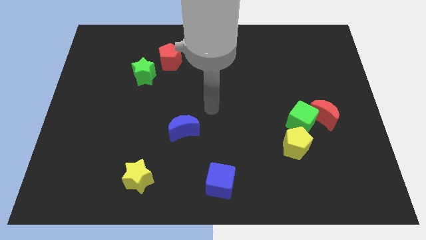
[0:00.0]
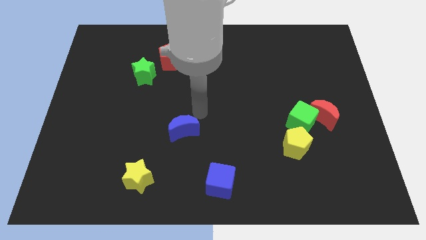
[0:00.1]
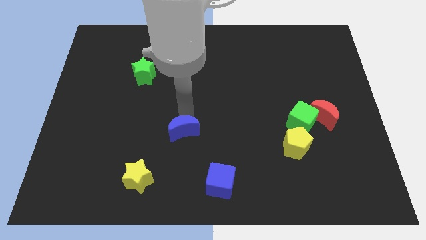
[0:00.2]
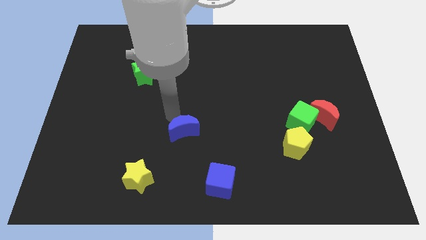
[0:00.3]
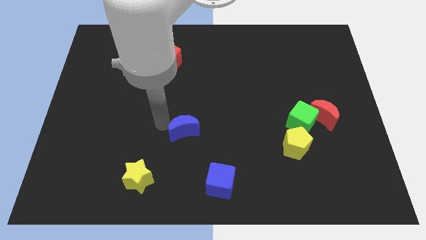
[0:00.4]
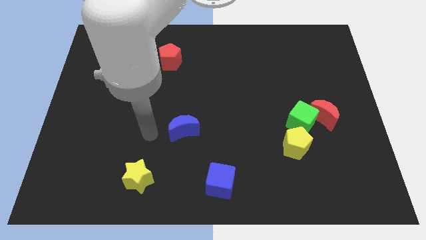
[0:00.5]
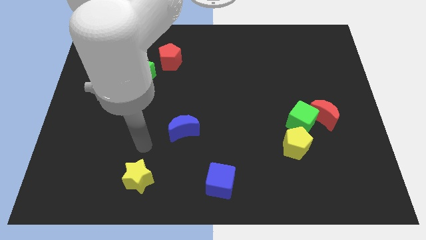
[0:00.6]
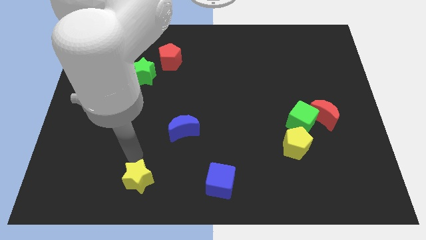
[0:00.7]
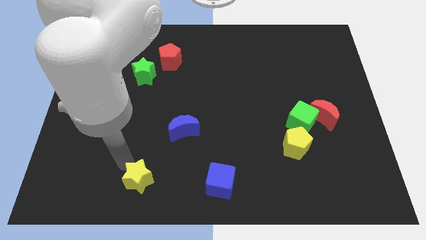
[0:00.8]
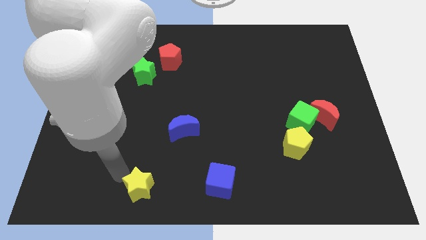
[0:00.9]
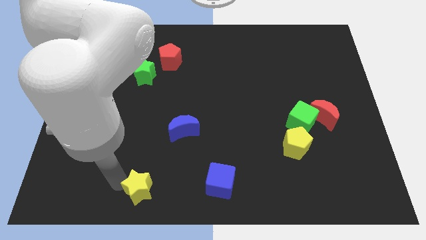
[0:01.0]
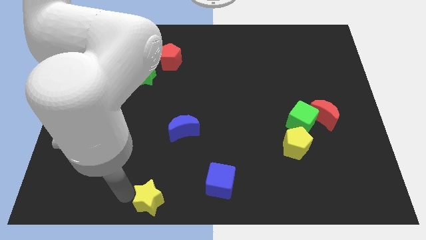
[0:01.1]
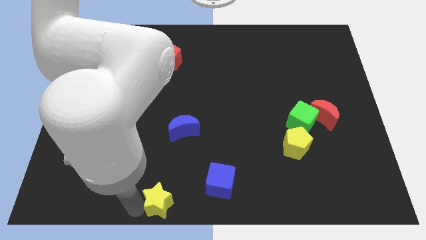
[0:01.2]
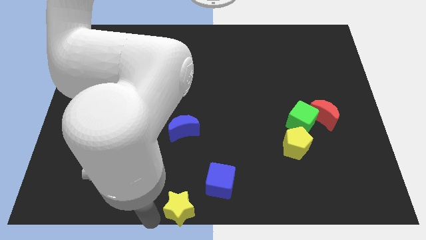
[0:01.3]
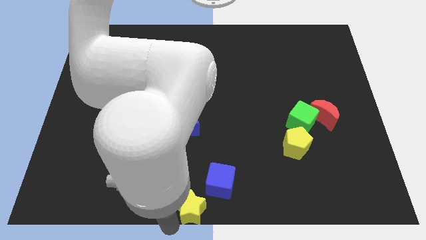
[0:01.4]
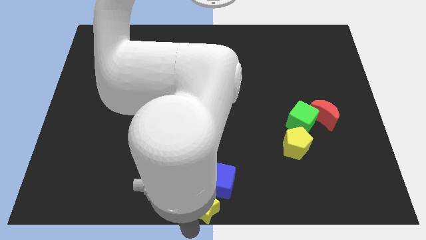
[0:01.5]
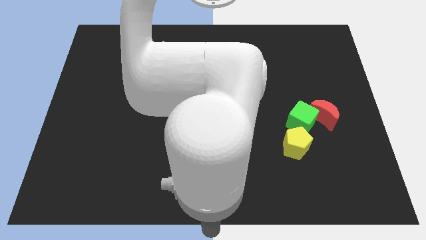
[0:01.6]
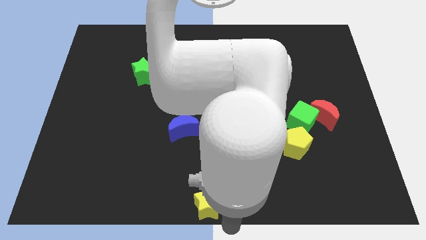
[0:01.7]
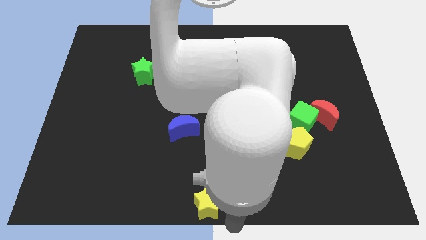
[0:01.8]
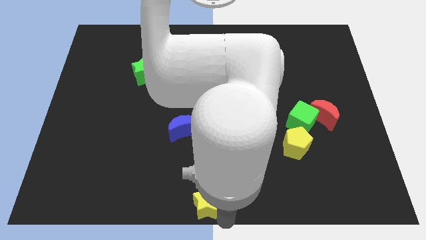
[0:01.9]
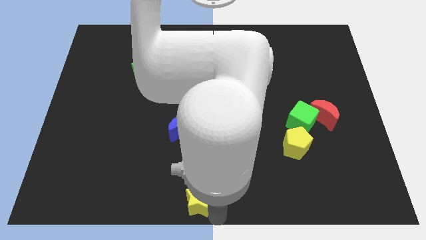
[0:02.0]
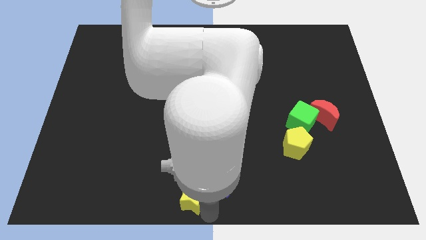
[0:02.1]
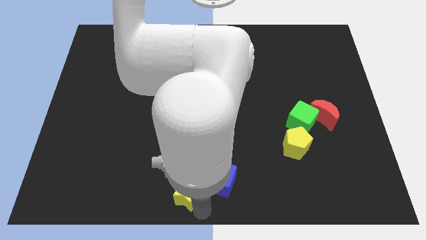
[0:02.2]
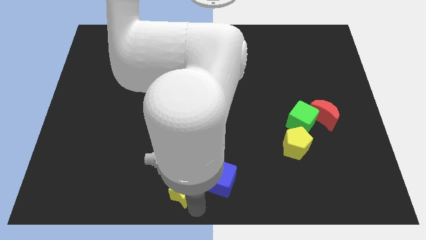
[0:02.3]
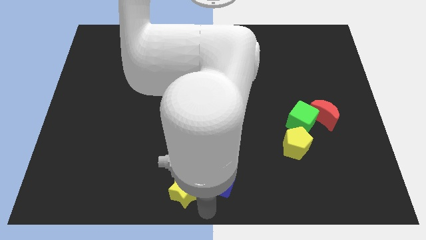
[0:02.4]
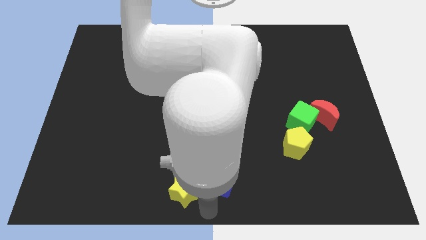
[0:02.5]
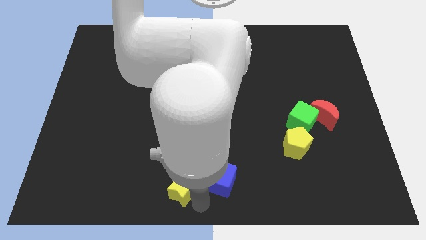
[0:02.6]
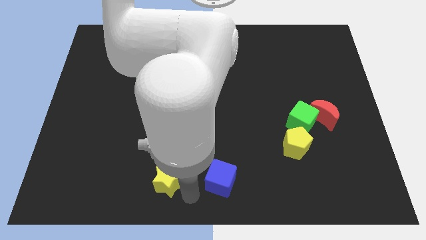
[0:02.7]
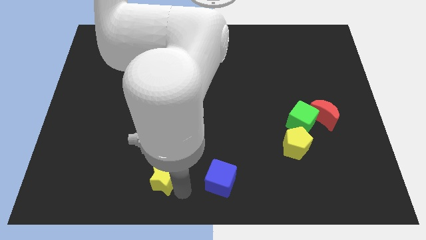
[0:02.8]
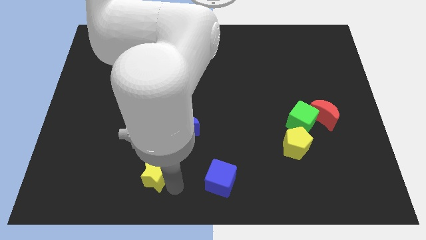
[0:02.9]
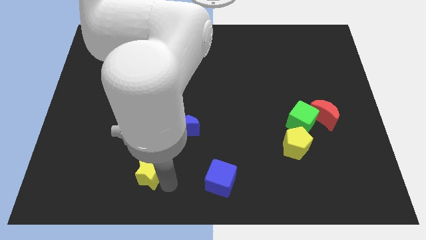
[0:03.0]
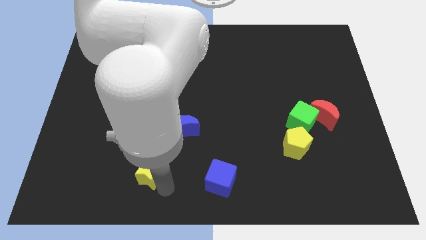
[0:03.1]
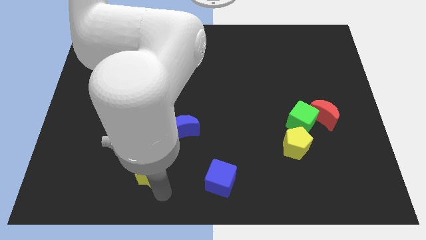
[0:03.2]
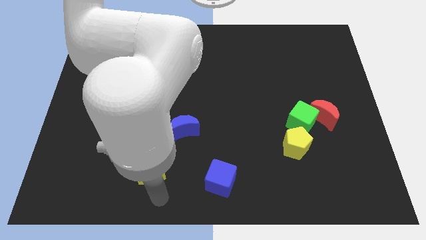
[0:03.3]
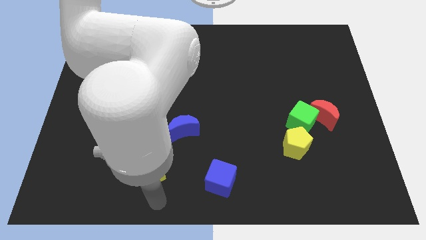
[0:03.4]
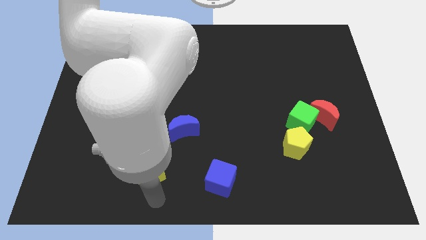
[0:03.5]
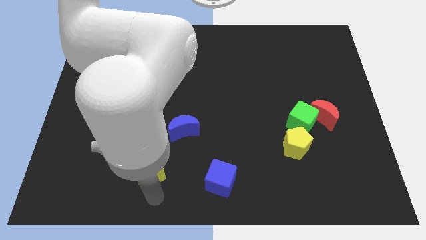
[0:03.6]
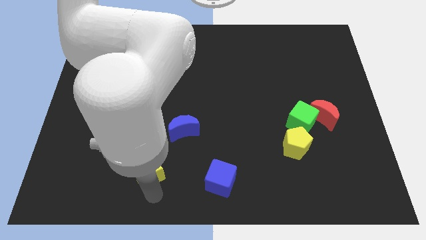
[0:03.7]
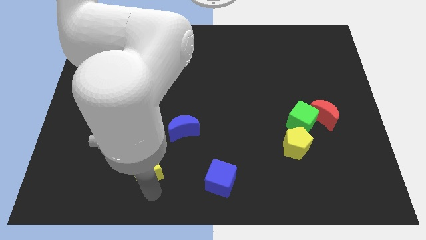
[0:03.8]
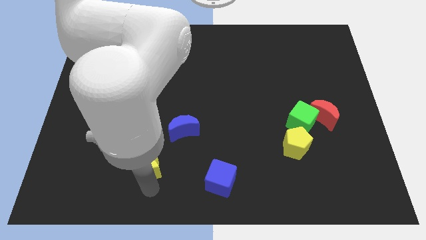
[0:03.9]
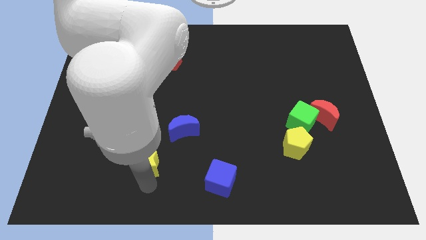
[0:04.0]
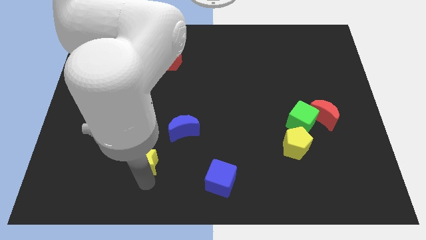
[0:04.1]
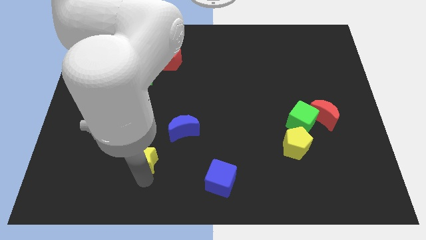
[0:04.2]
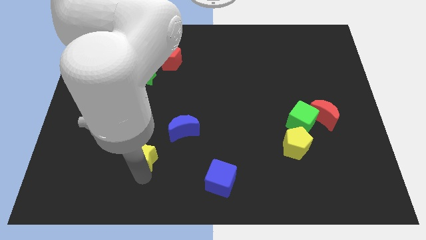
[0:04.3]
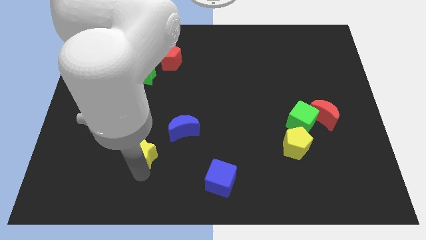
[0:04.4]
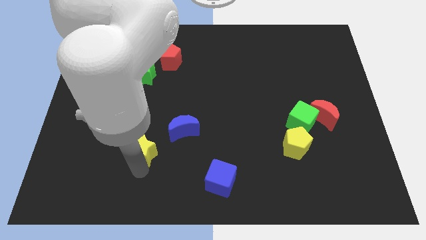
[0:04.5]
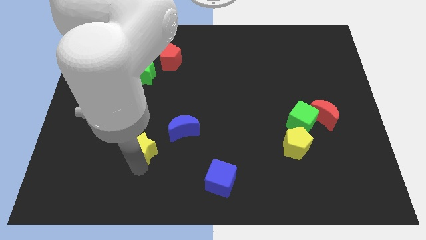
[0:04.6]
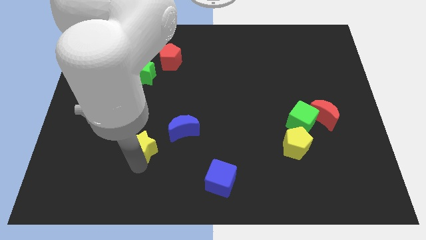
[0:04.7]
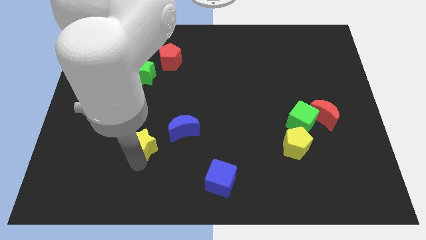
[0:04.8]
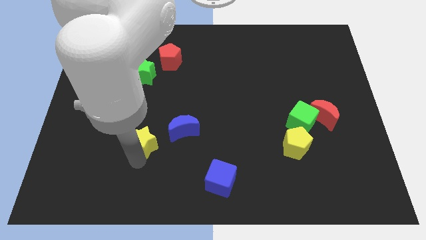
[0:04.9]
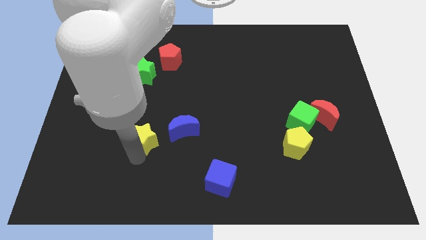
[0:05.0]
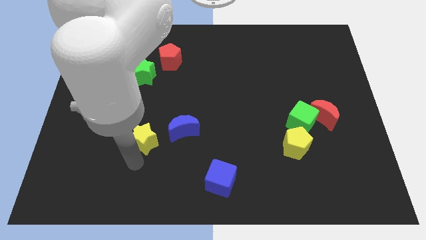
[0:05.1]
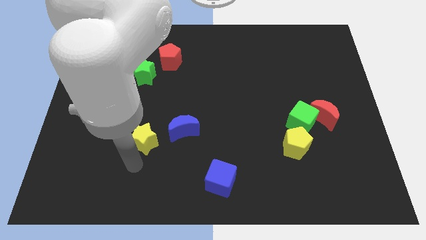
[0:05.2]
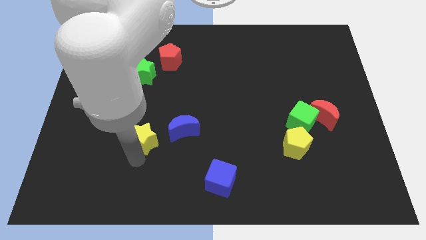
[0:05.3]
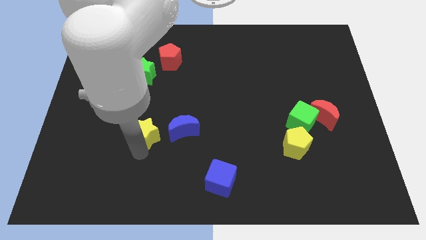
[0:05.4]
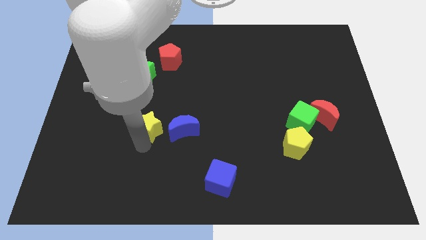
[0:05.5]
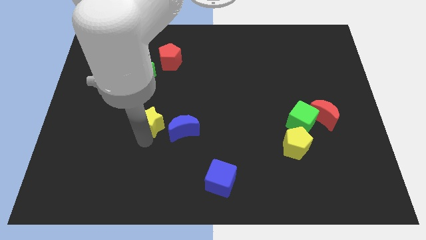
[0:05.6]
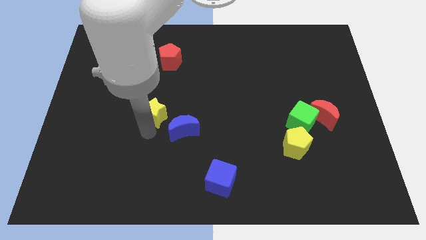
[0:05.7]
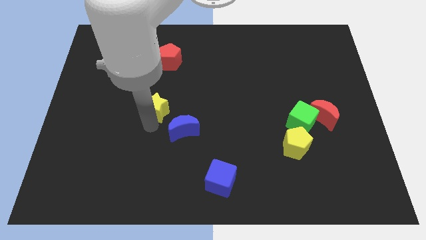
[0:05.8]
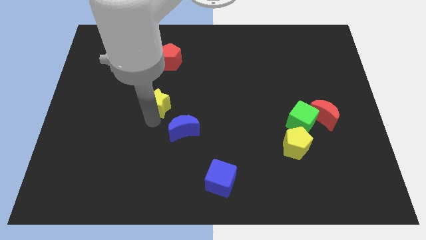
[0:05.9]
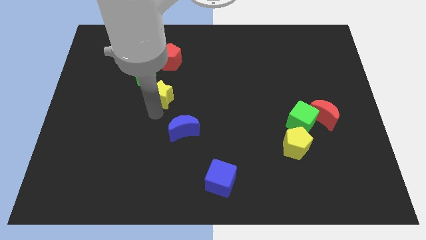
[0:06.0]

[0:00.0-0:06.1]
push the yellow star upwards

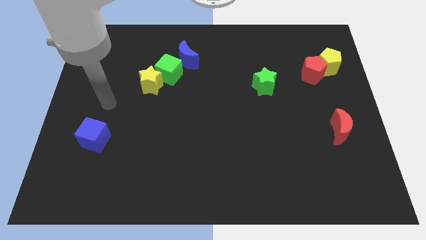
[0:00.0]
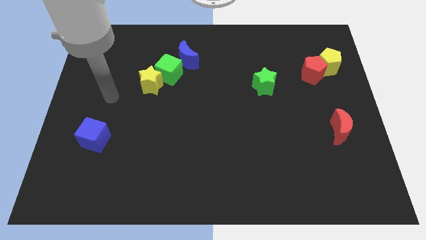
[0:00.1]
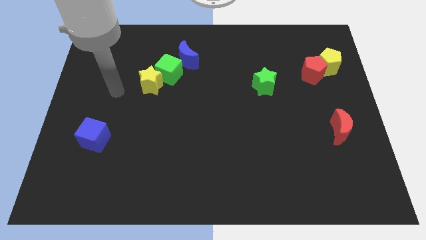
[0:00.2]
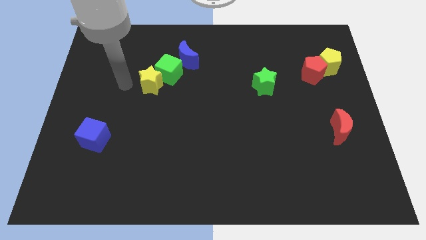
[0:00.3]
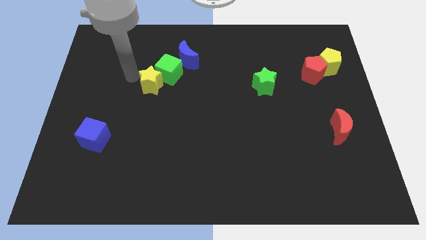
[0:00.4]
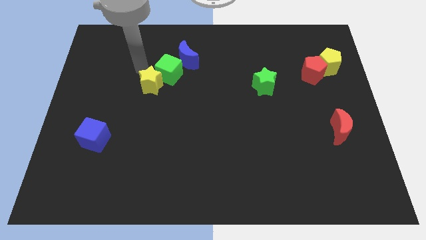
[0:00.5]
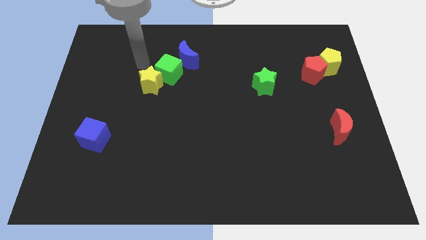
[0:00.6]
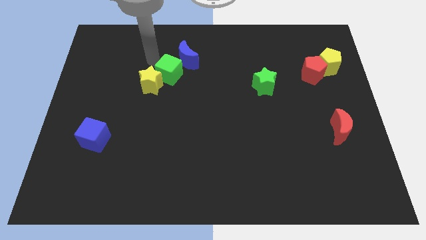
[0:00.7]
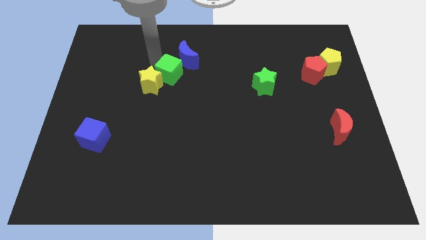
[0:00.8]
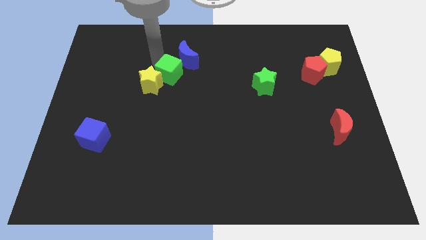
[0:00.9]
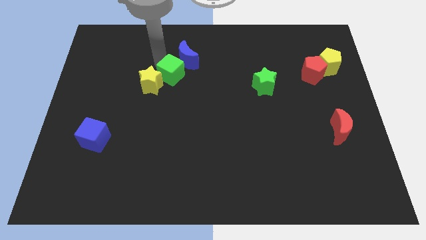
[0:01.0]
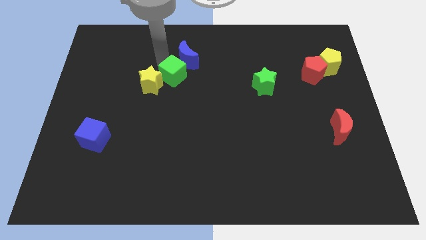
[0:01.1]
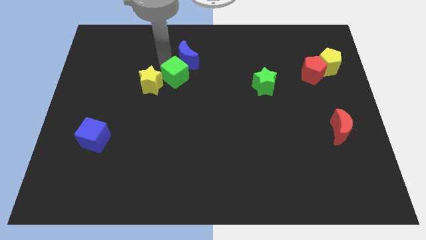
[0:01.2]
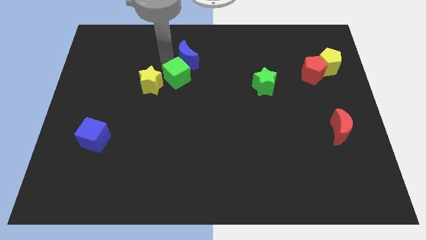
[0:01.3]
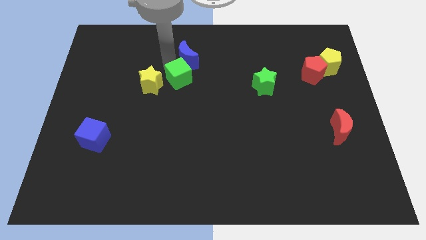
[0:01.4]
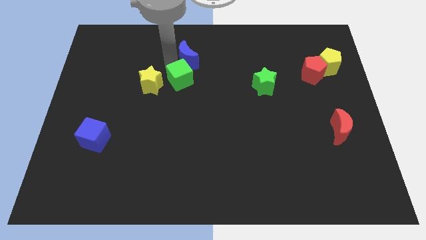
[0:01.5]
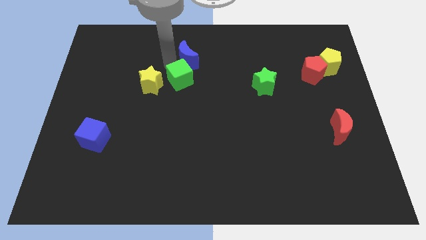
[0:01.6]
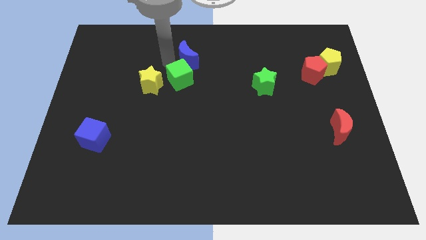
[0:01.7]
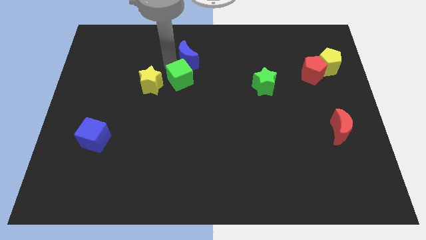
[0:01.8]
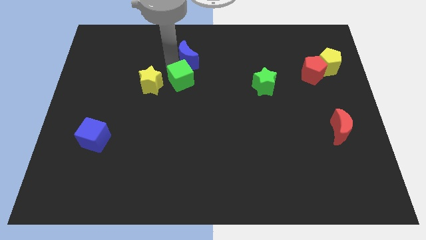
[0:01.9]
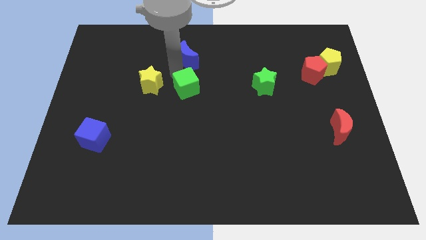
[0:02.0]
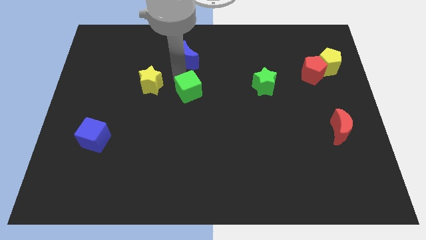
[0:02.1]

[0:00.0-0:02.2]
move the green cube downwards and right slightly

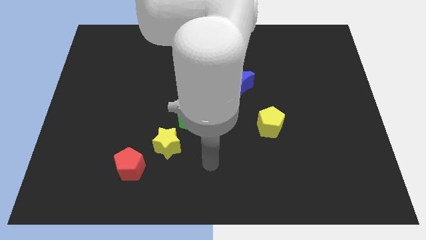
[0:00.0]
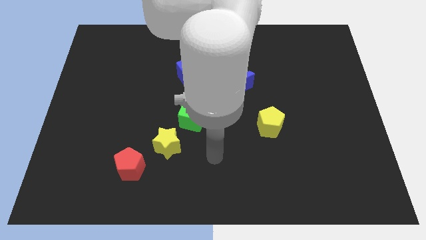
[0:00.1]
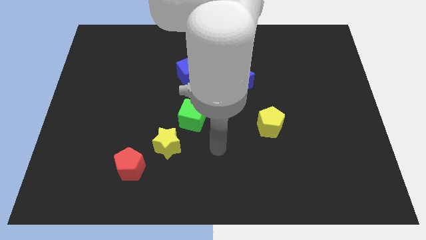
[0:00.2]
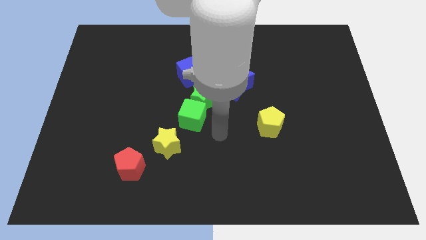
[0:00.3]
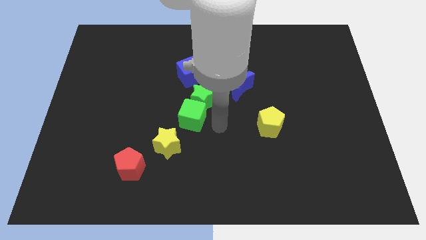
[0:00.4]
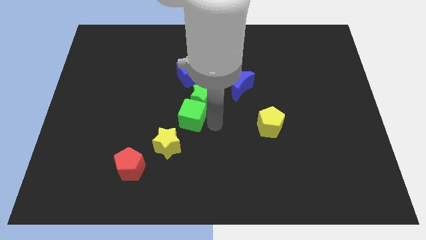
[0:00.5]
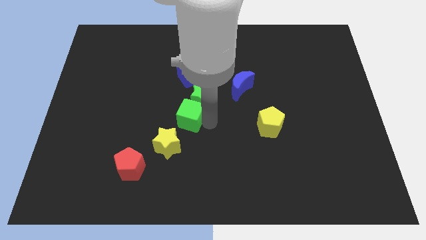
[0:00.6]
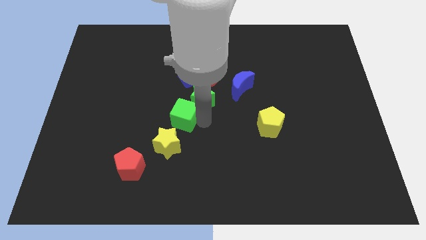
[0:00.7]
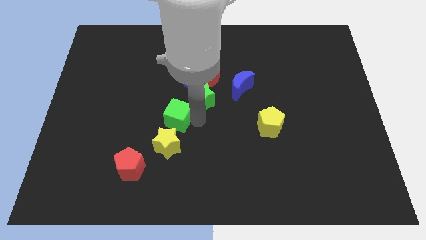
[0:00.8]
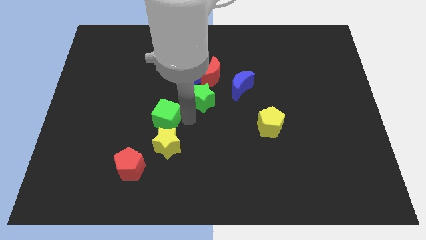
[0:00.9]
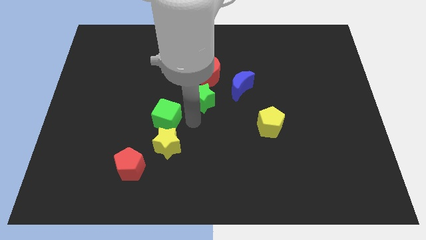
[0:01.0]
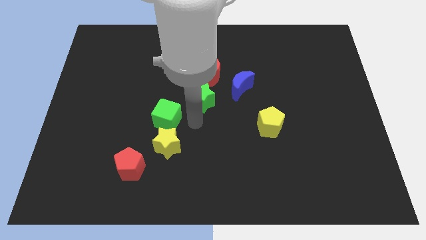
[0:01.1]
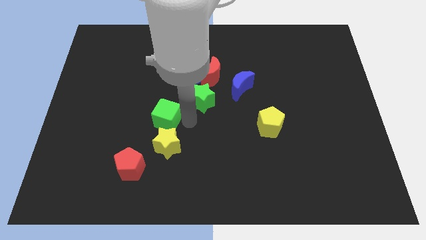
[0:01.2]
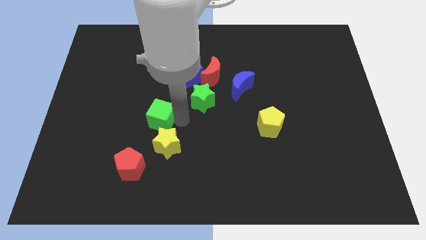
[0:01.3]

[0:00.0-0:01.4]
push the green cube somewhat to the left
